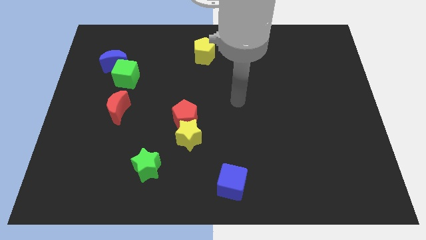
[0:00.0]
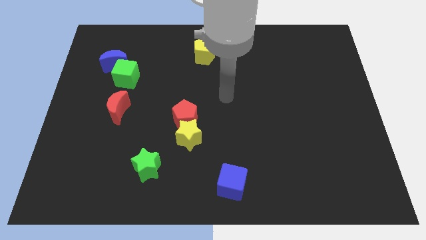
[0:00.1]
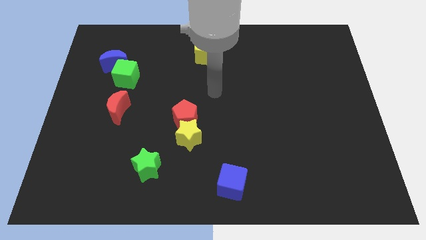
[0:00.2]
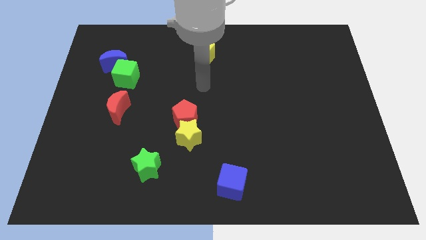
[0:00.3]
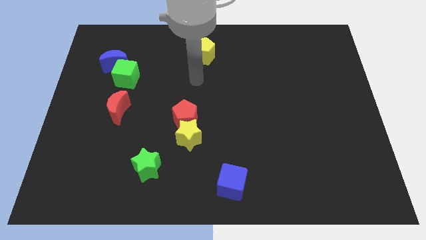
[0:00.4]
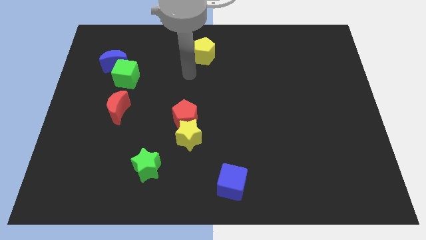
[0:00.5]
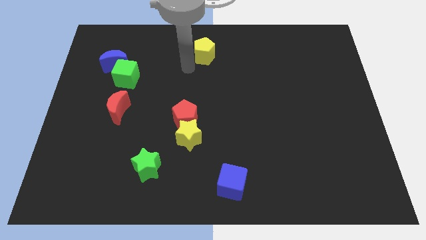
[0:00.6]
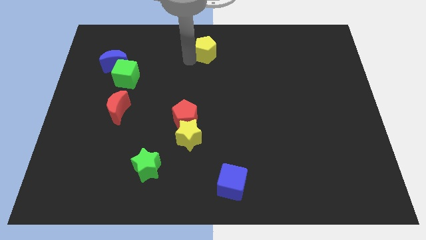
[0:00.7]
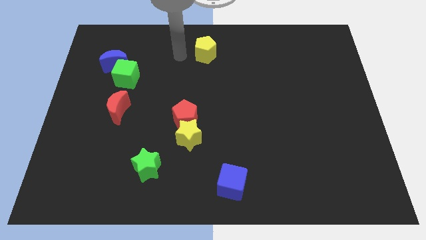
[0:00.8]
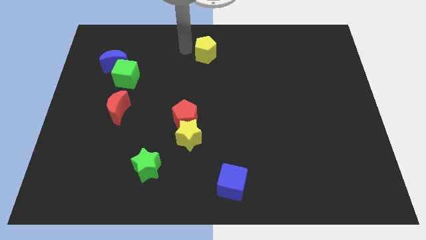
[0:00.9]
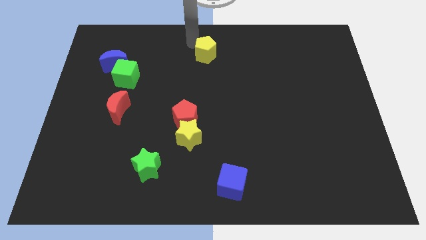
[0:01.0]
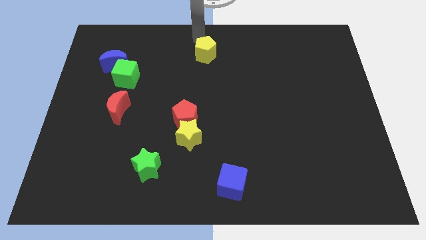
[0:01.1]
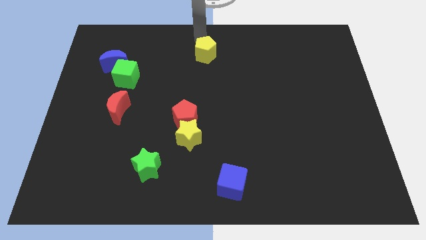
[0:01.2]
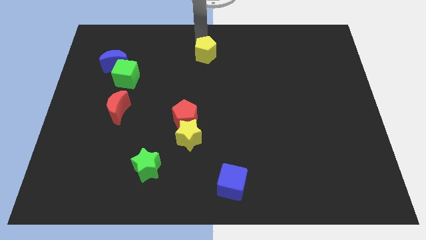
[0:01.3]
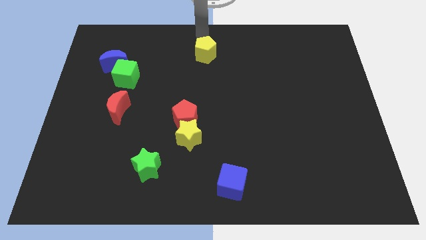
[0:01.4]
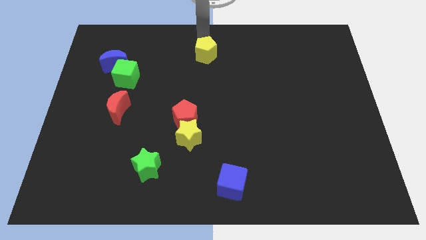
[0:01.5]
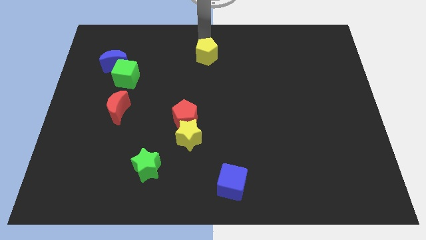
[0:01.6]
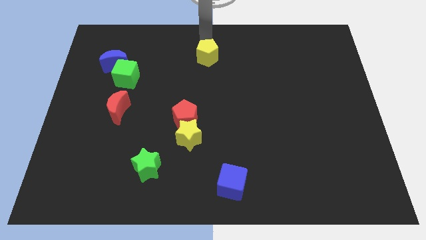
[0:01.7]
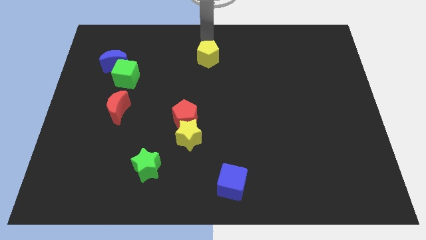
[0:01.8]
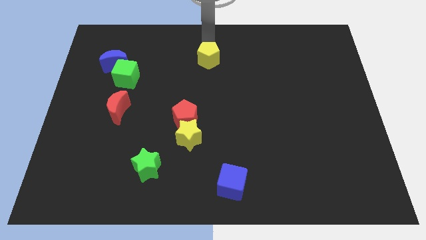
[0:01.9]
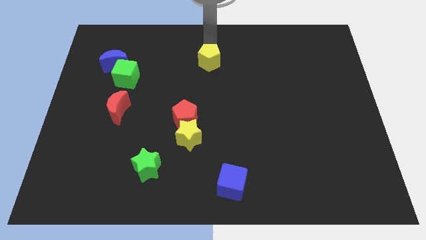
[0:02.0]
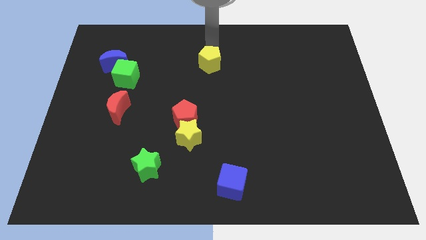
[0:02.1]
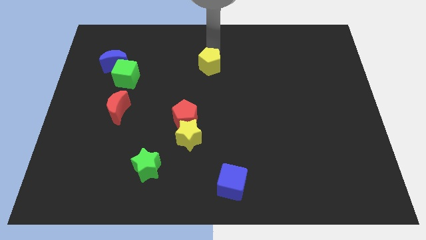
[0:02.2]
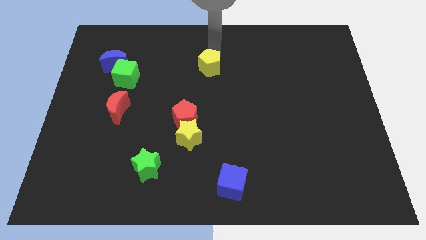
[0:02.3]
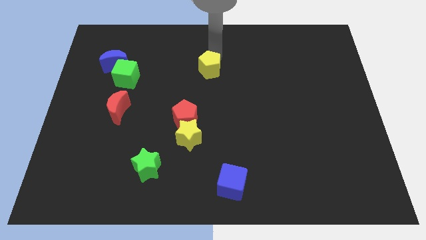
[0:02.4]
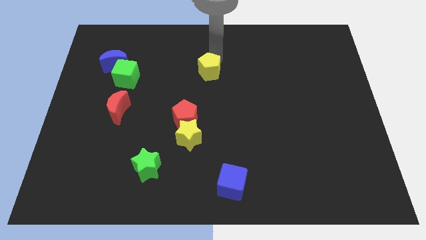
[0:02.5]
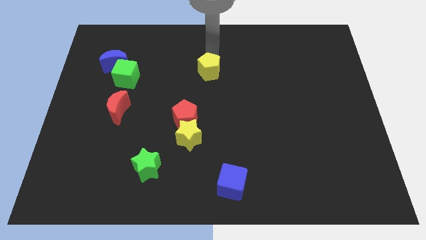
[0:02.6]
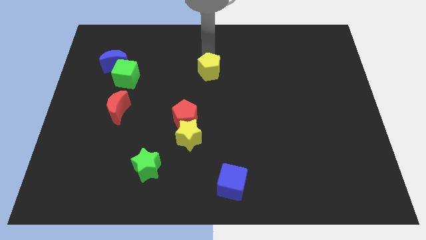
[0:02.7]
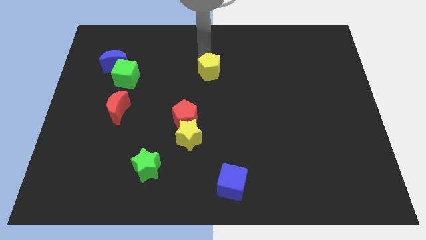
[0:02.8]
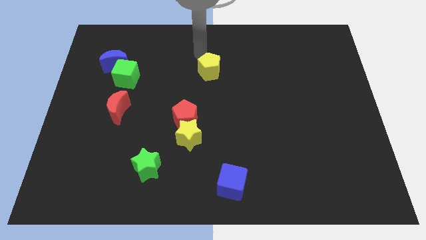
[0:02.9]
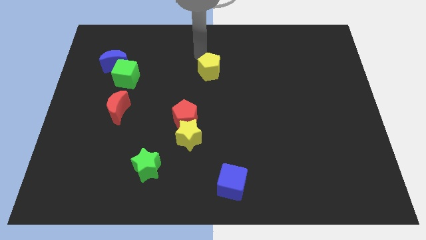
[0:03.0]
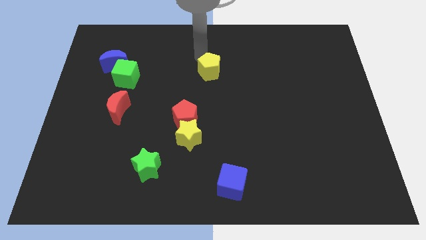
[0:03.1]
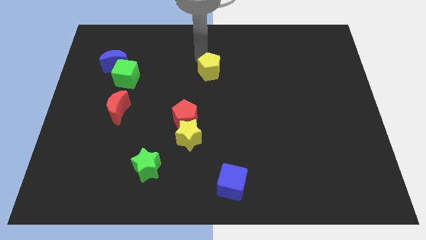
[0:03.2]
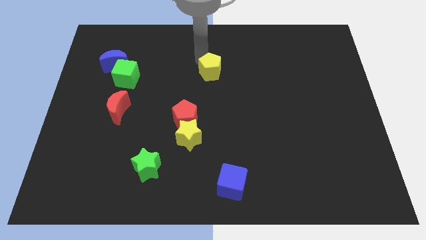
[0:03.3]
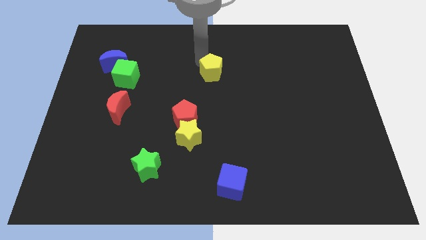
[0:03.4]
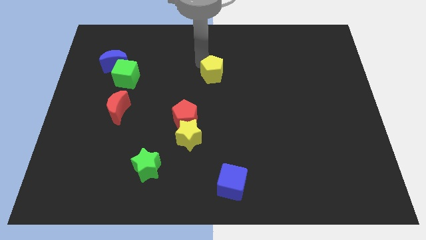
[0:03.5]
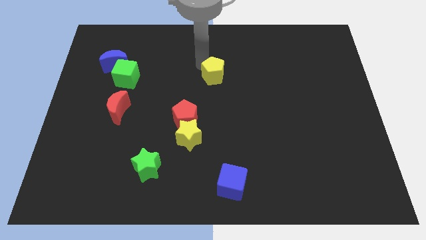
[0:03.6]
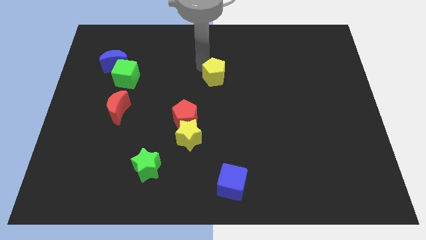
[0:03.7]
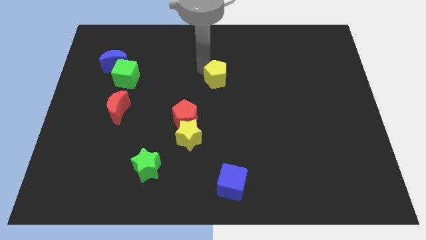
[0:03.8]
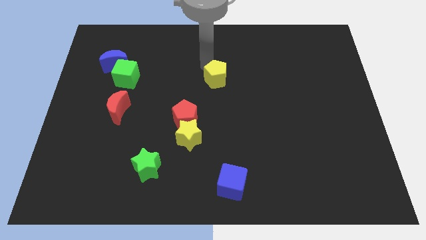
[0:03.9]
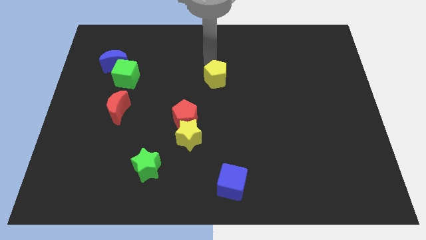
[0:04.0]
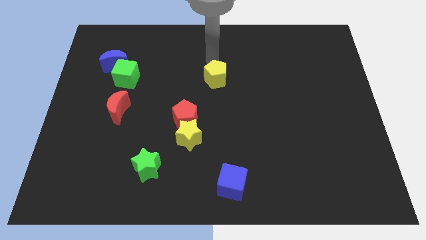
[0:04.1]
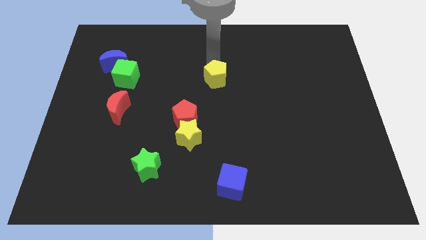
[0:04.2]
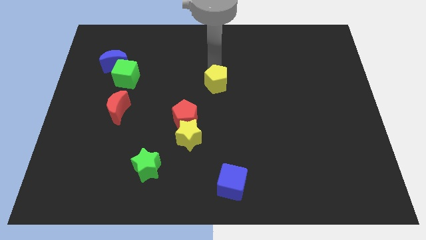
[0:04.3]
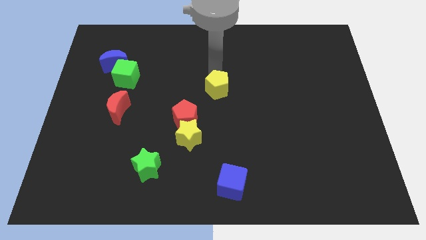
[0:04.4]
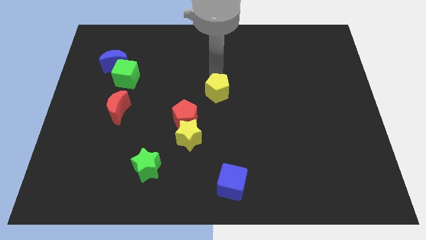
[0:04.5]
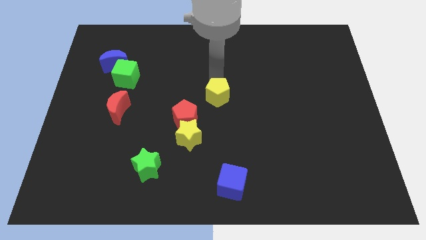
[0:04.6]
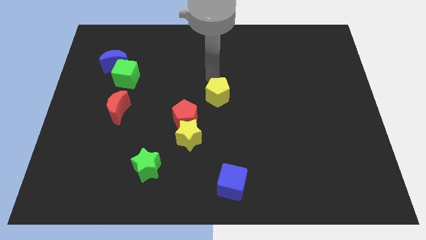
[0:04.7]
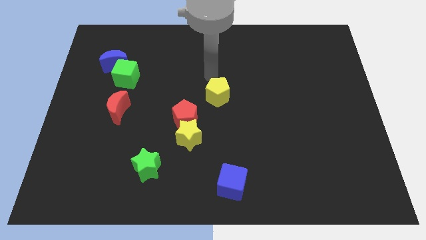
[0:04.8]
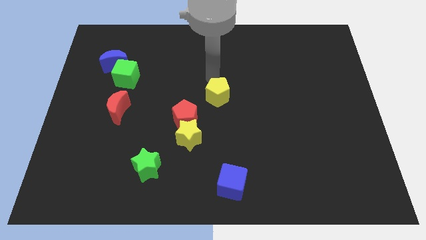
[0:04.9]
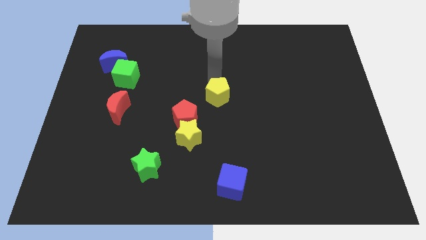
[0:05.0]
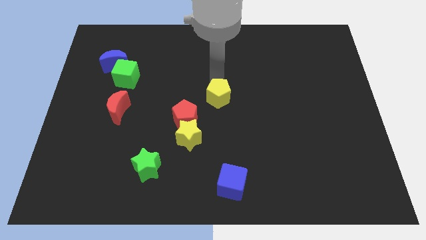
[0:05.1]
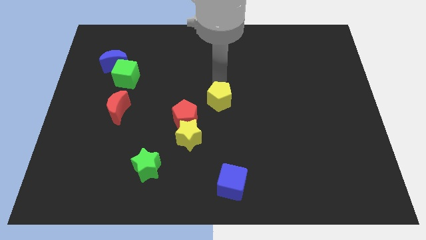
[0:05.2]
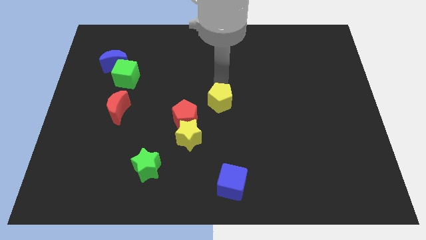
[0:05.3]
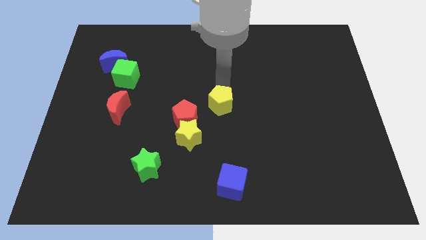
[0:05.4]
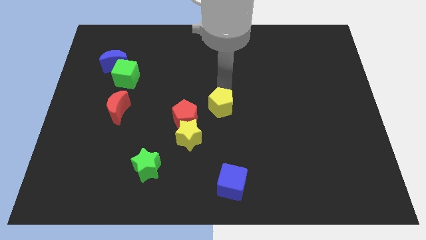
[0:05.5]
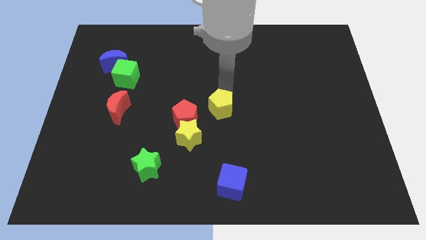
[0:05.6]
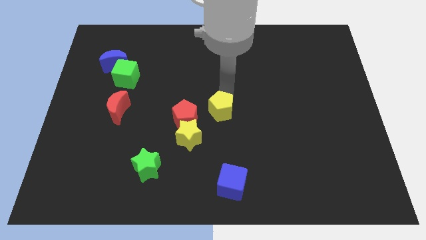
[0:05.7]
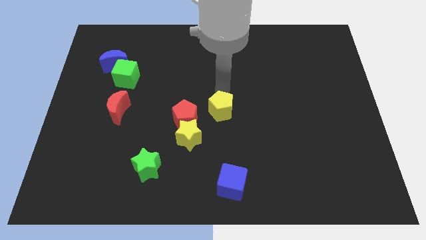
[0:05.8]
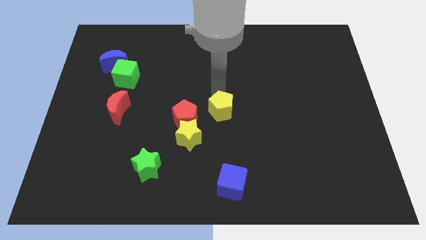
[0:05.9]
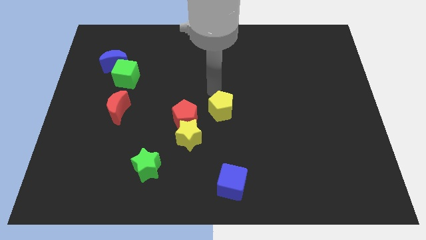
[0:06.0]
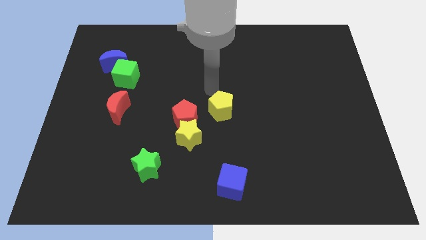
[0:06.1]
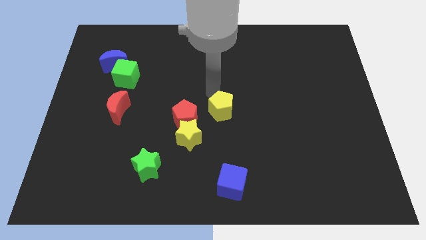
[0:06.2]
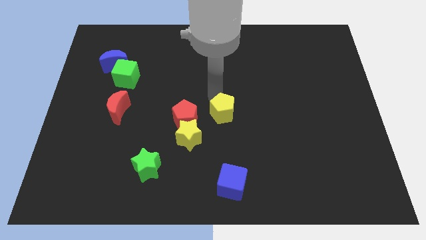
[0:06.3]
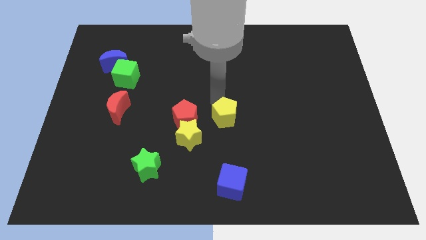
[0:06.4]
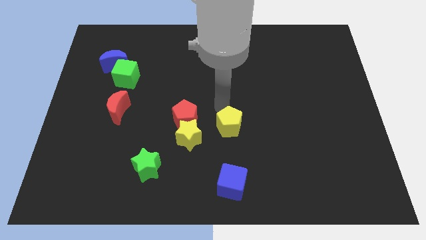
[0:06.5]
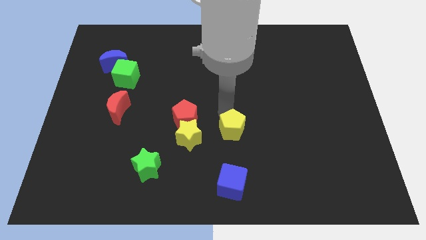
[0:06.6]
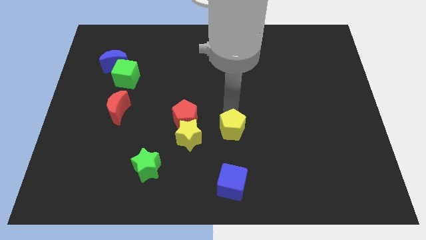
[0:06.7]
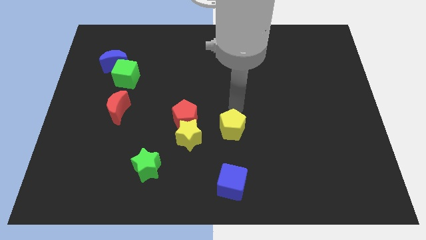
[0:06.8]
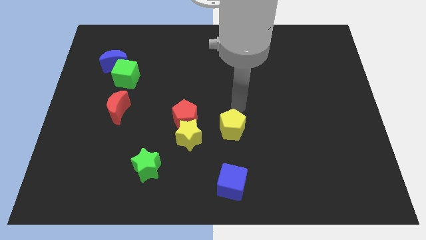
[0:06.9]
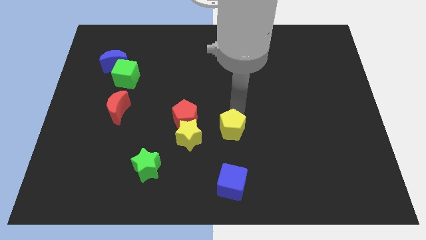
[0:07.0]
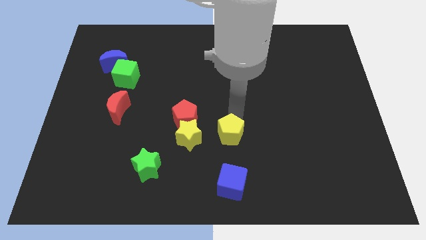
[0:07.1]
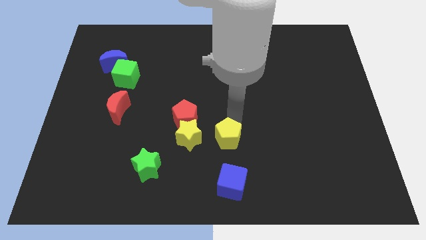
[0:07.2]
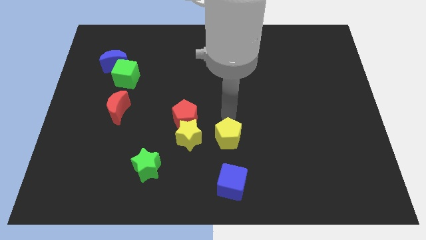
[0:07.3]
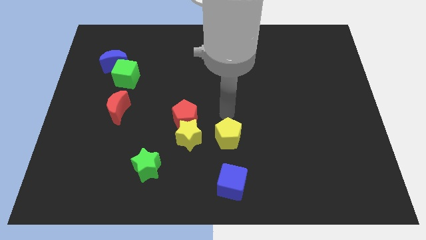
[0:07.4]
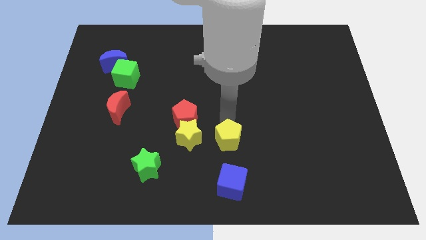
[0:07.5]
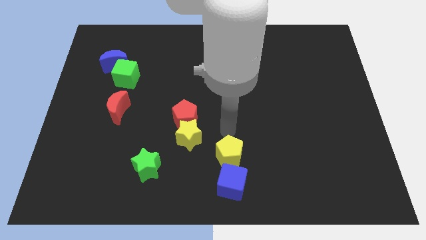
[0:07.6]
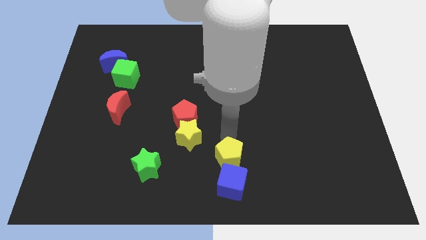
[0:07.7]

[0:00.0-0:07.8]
move the yellow pentagon towards the blue cube

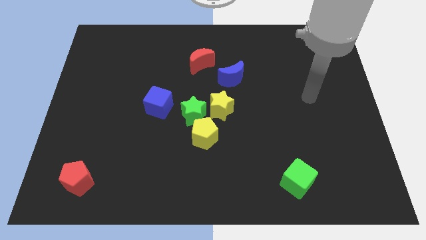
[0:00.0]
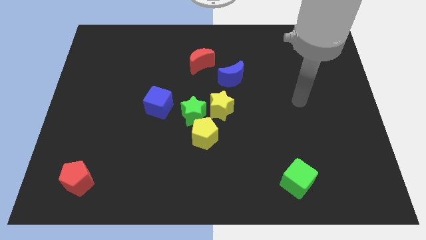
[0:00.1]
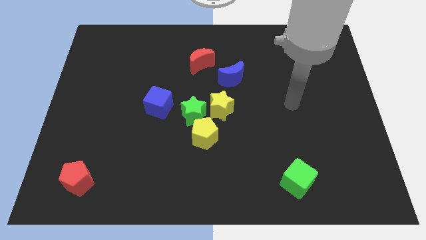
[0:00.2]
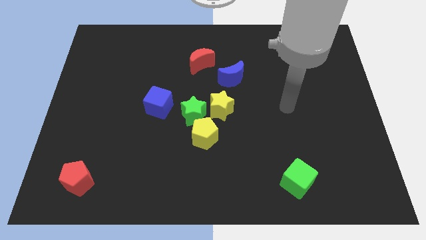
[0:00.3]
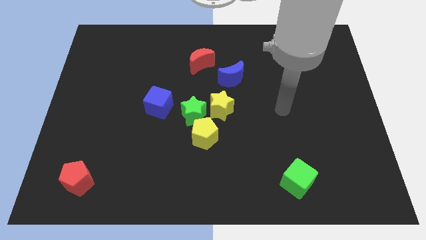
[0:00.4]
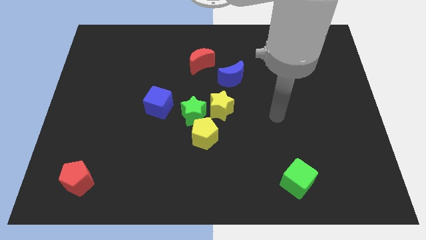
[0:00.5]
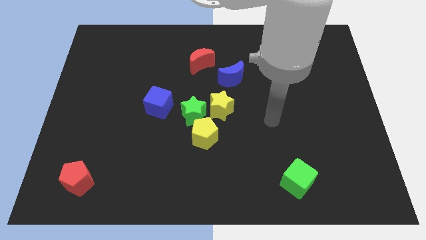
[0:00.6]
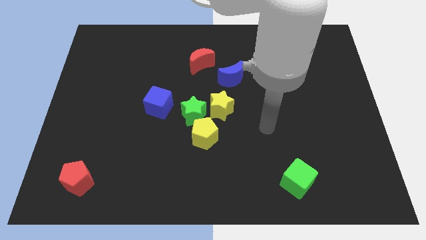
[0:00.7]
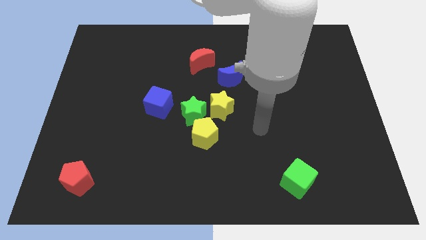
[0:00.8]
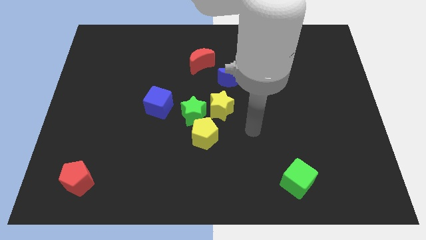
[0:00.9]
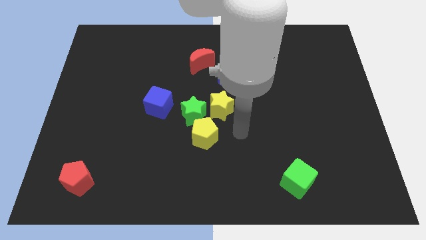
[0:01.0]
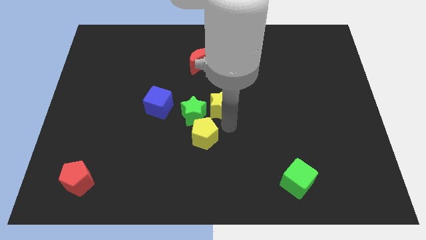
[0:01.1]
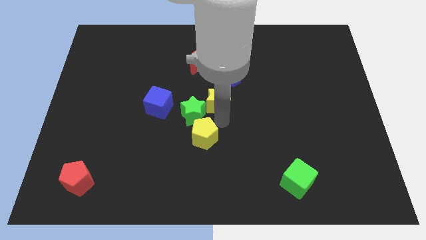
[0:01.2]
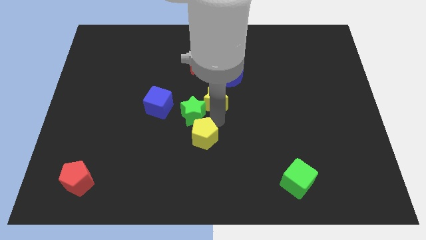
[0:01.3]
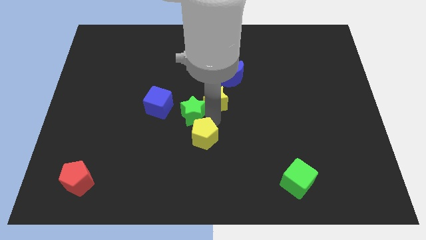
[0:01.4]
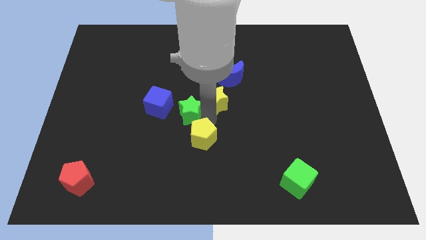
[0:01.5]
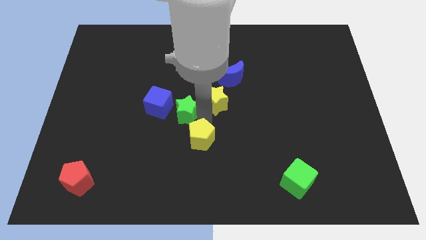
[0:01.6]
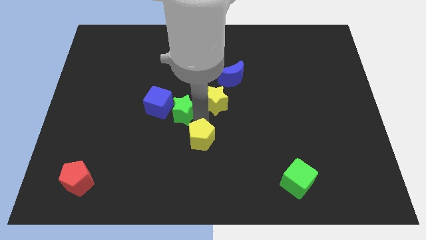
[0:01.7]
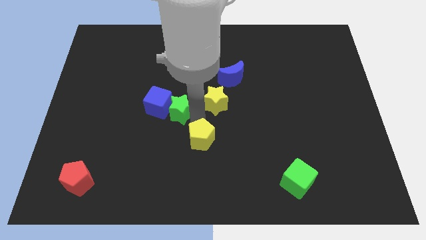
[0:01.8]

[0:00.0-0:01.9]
put the green star towards the blue cube
